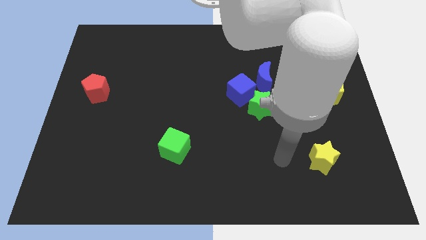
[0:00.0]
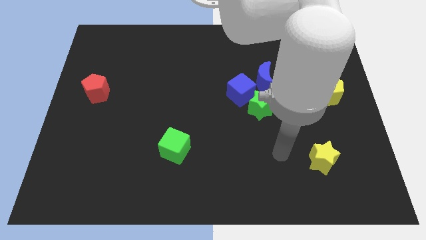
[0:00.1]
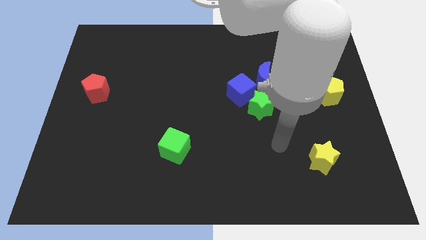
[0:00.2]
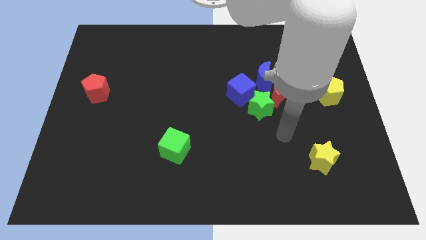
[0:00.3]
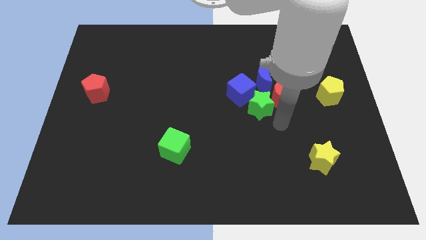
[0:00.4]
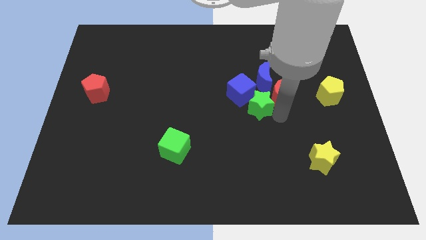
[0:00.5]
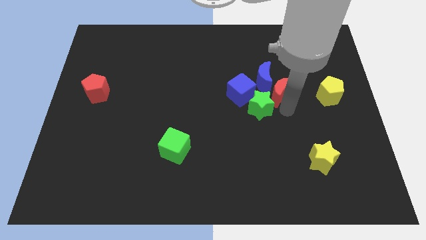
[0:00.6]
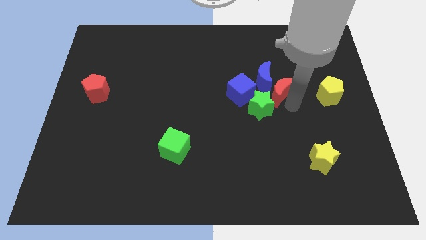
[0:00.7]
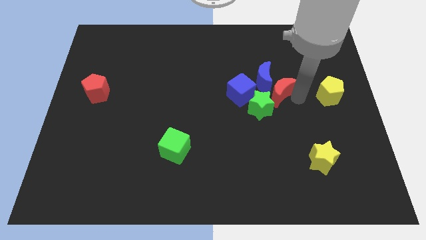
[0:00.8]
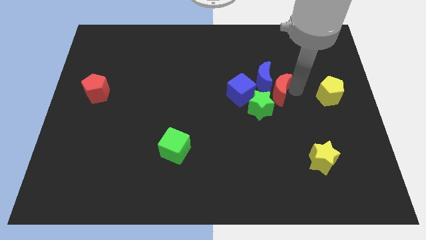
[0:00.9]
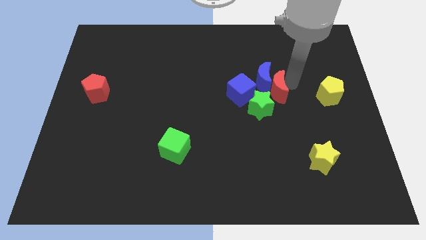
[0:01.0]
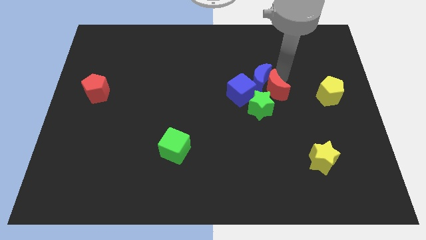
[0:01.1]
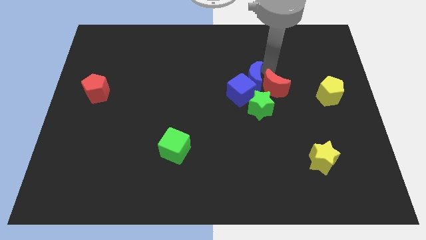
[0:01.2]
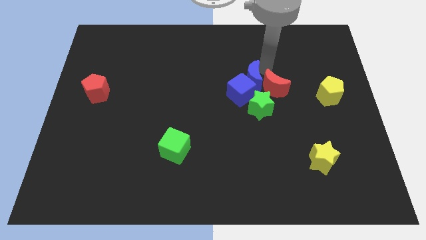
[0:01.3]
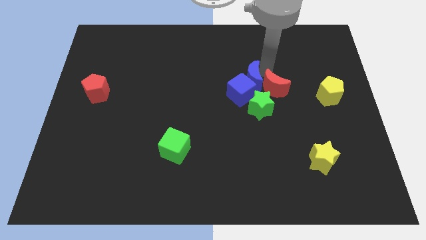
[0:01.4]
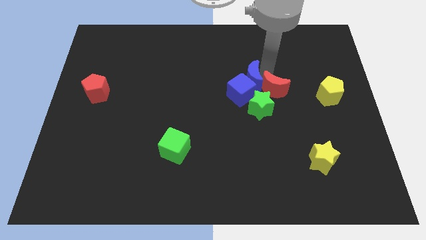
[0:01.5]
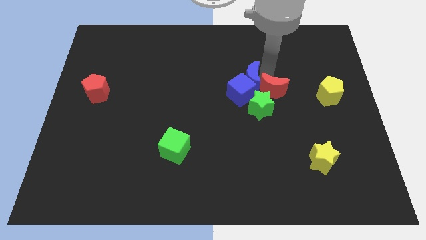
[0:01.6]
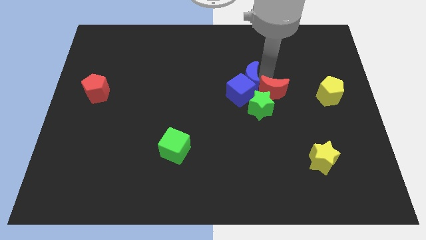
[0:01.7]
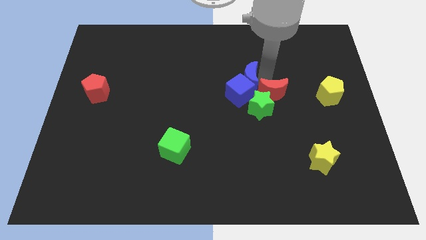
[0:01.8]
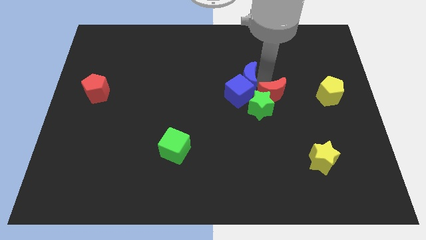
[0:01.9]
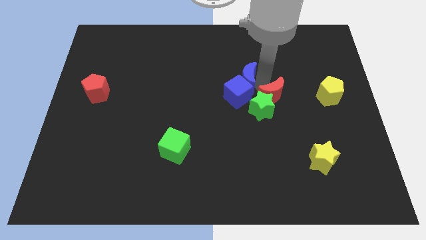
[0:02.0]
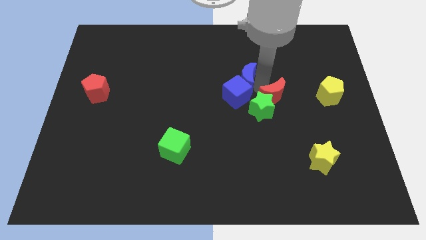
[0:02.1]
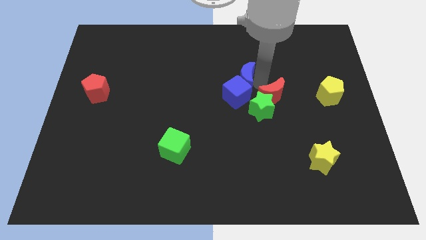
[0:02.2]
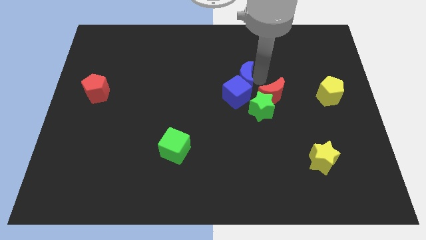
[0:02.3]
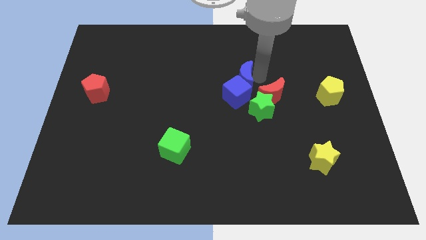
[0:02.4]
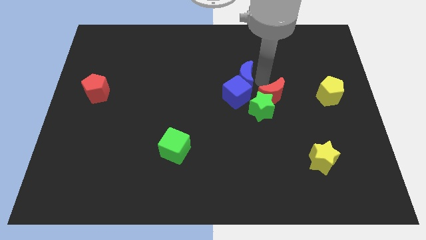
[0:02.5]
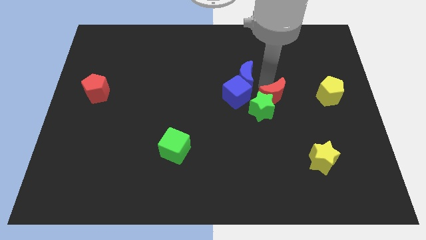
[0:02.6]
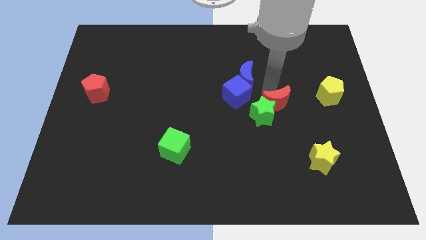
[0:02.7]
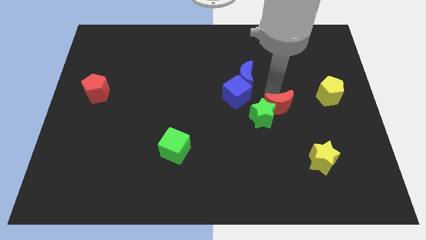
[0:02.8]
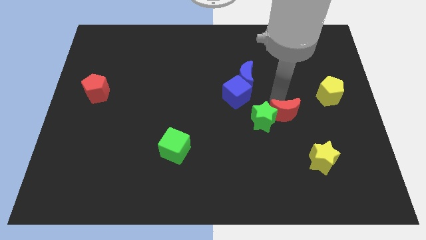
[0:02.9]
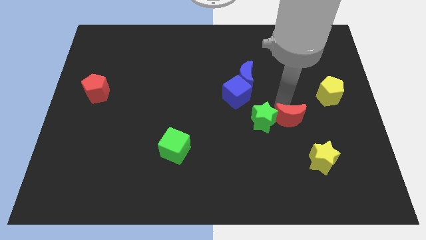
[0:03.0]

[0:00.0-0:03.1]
slide the red moon a little downwards

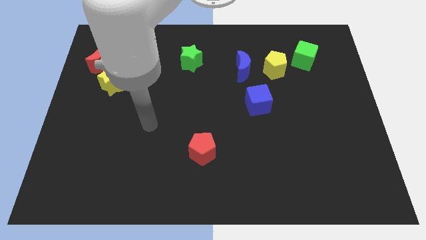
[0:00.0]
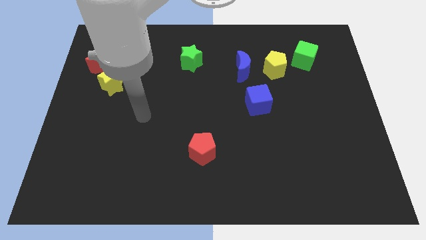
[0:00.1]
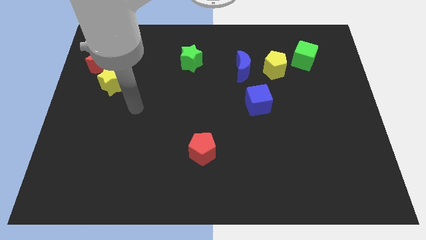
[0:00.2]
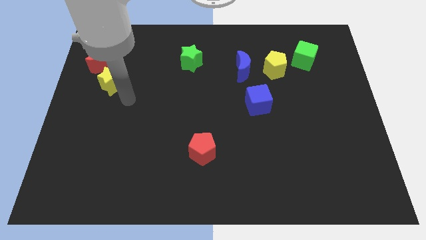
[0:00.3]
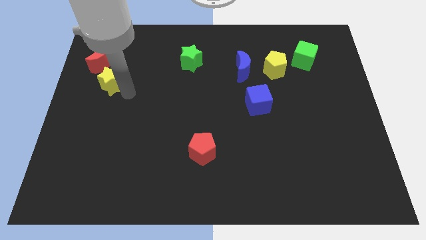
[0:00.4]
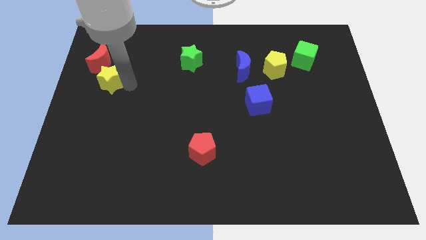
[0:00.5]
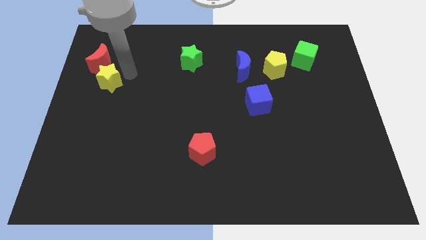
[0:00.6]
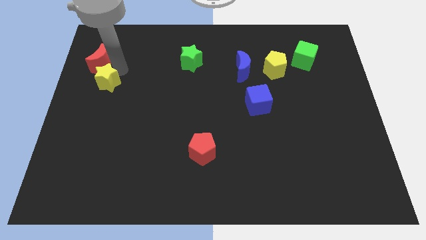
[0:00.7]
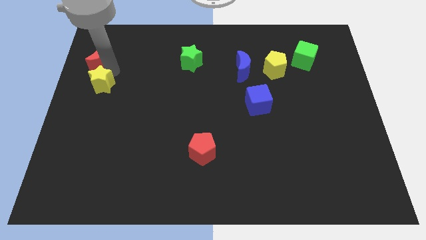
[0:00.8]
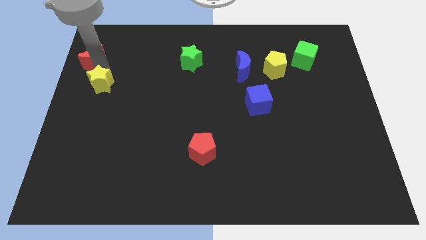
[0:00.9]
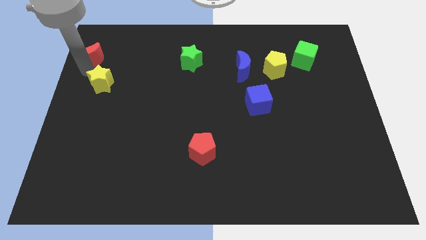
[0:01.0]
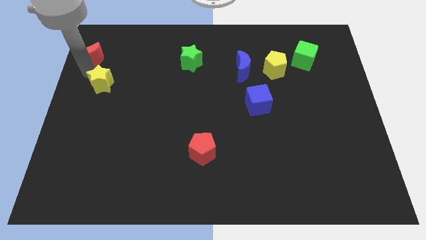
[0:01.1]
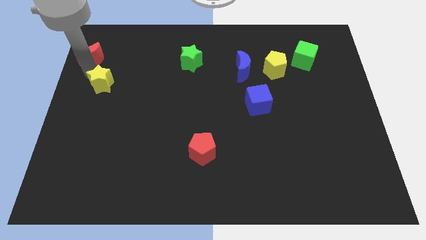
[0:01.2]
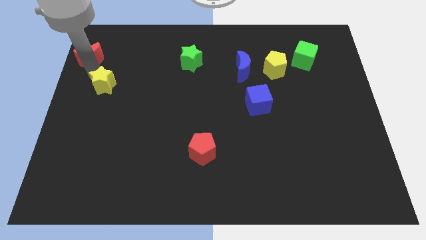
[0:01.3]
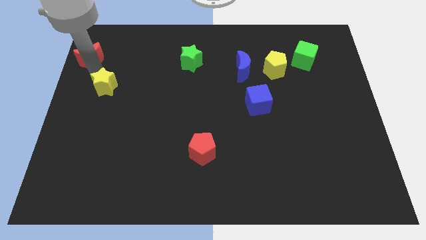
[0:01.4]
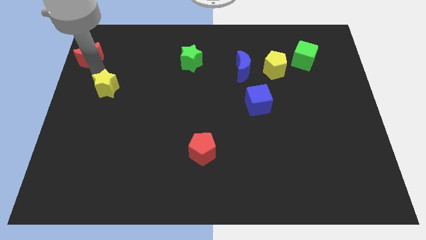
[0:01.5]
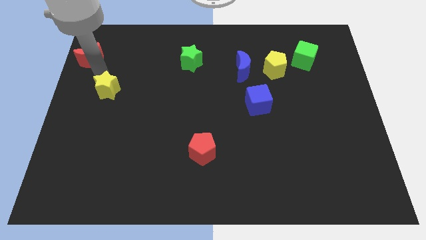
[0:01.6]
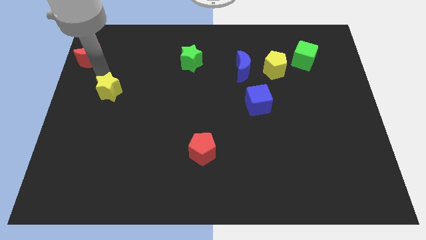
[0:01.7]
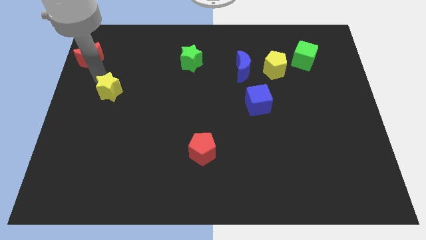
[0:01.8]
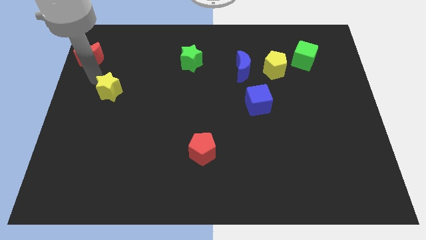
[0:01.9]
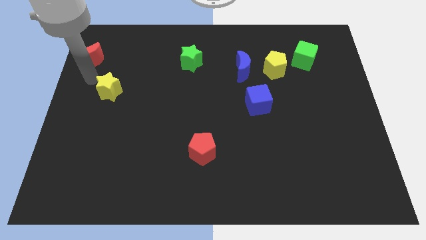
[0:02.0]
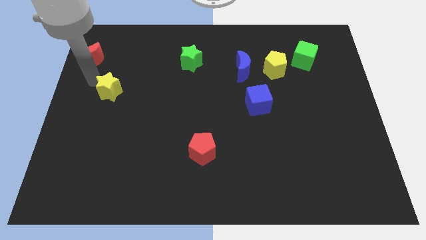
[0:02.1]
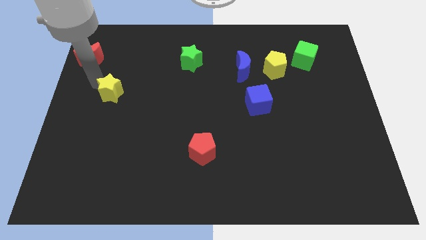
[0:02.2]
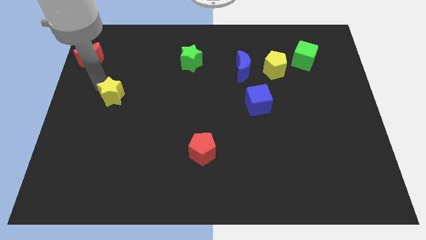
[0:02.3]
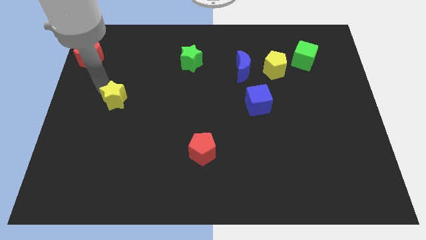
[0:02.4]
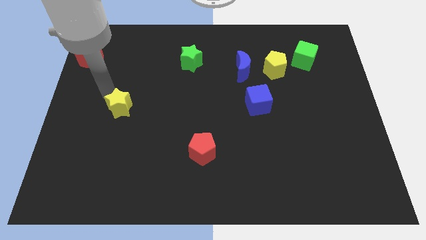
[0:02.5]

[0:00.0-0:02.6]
push the yellow star a little bit diagonally down and to the right

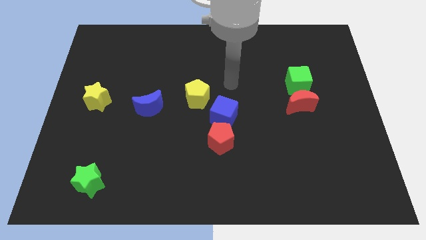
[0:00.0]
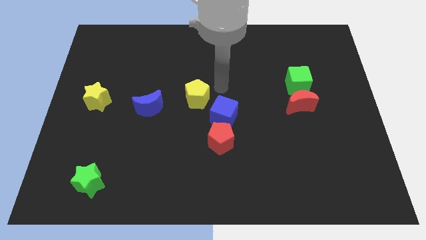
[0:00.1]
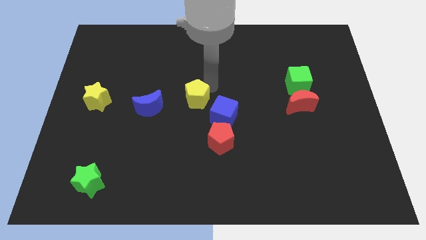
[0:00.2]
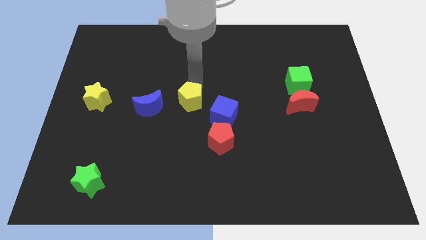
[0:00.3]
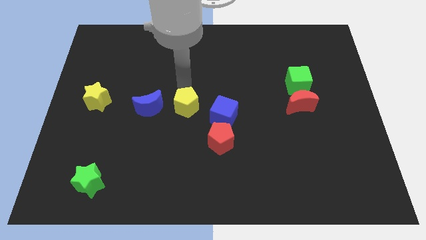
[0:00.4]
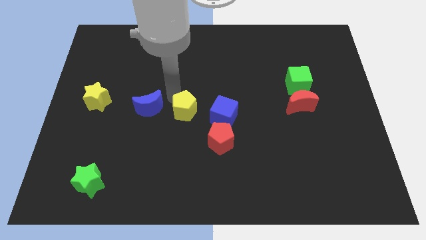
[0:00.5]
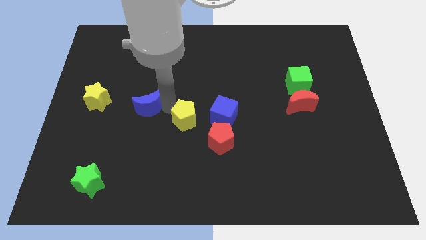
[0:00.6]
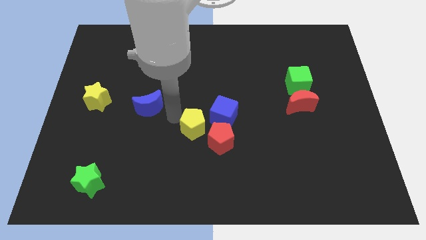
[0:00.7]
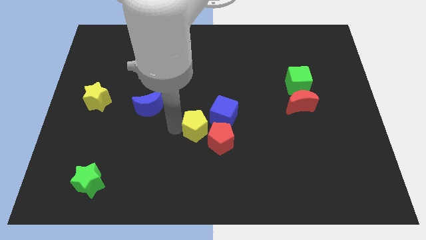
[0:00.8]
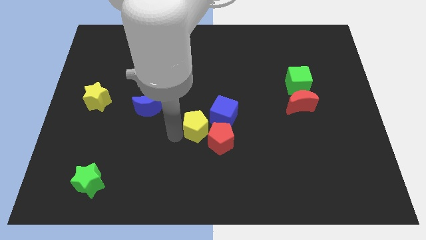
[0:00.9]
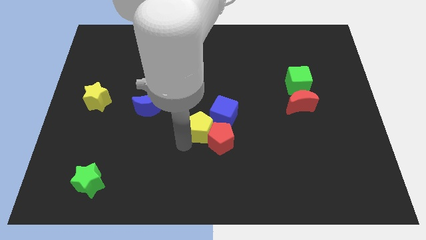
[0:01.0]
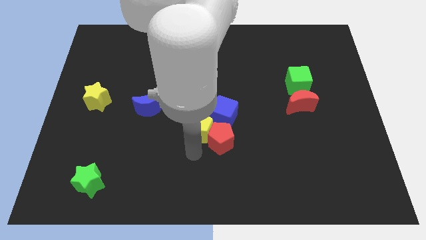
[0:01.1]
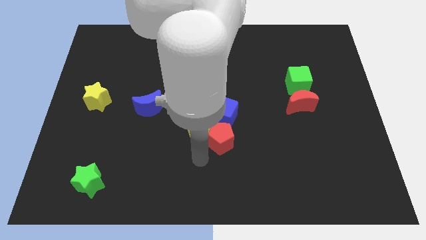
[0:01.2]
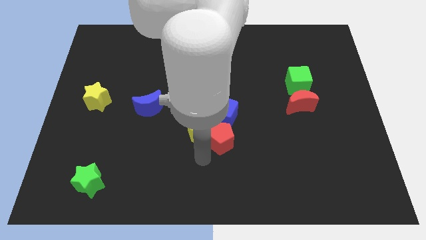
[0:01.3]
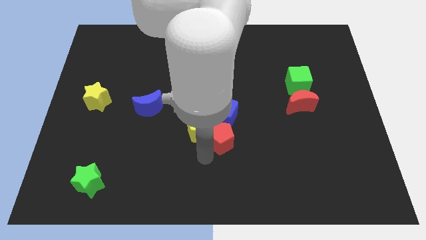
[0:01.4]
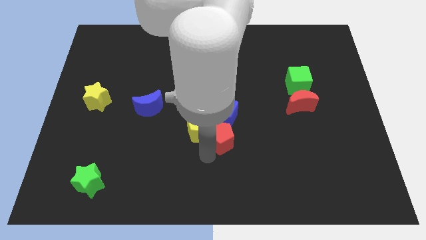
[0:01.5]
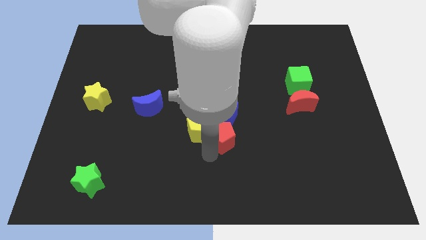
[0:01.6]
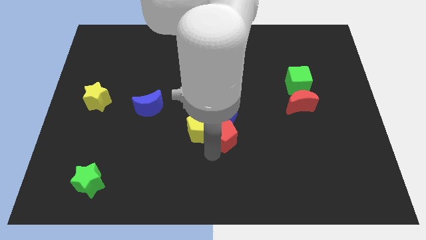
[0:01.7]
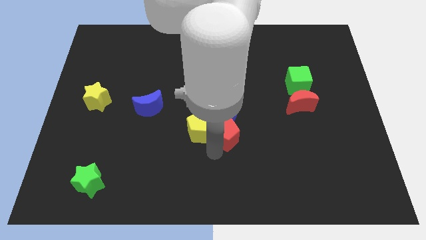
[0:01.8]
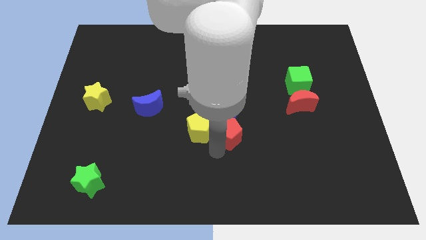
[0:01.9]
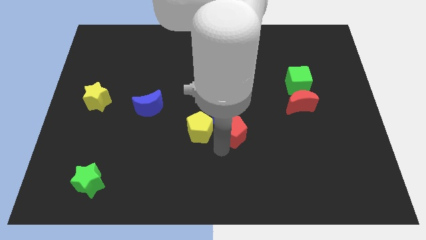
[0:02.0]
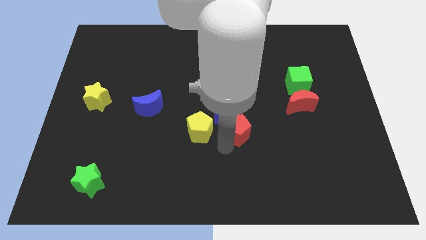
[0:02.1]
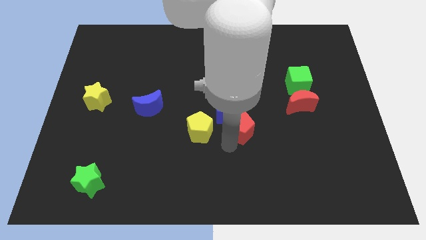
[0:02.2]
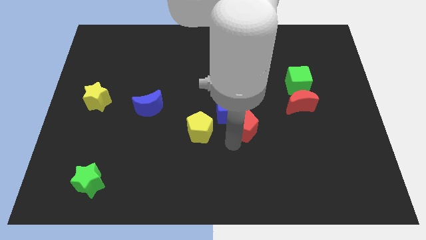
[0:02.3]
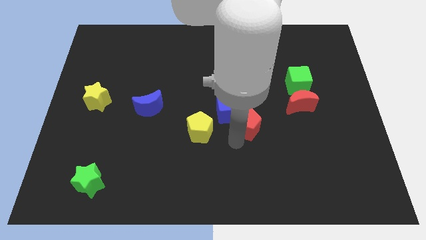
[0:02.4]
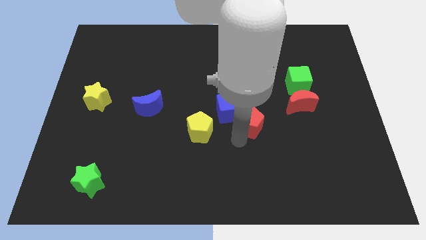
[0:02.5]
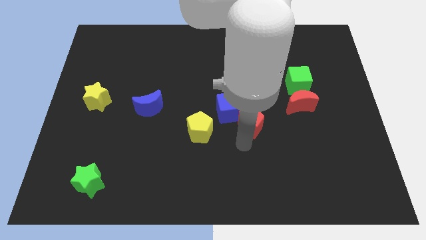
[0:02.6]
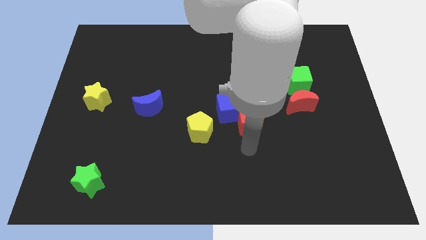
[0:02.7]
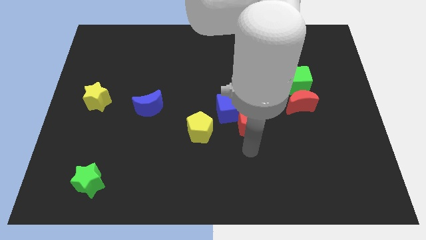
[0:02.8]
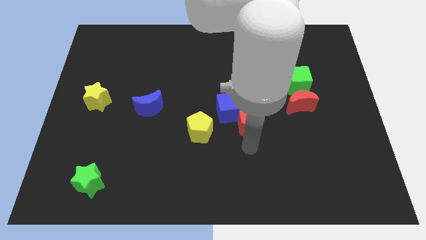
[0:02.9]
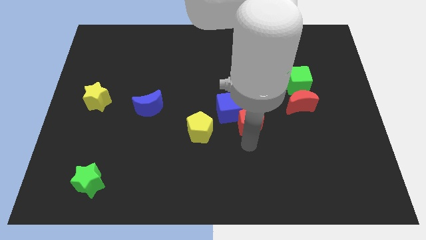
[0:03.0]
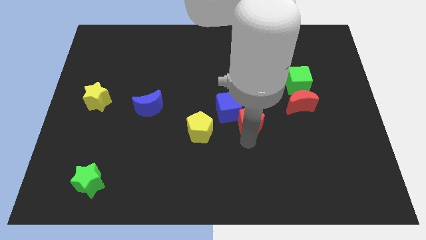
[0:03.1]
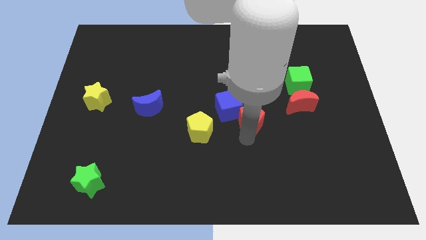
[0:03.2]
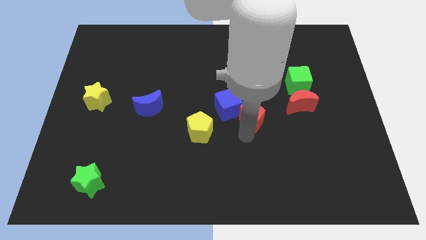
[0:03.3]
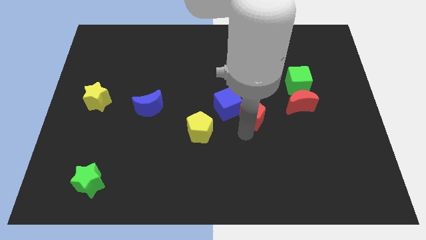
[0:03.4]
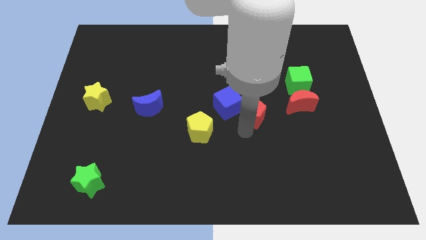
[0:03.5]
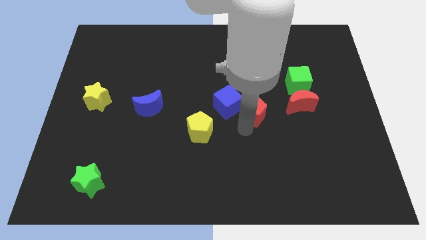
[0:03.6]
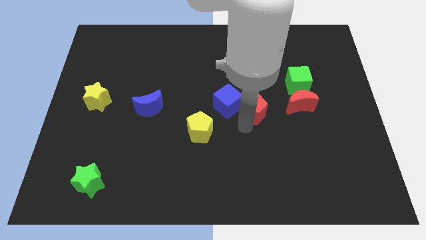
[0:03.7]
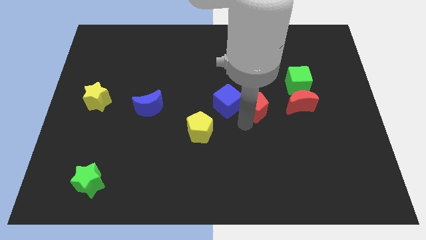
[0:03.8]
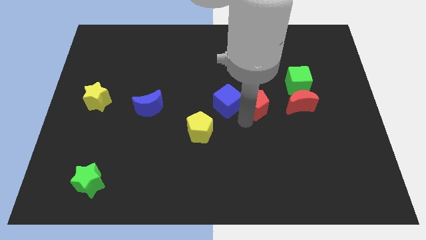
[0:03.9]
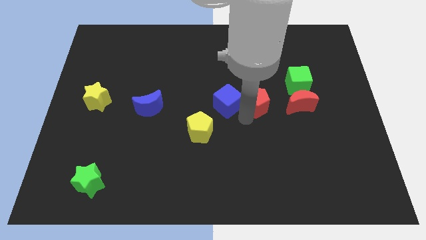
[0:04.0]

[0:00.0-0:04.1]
move the red pentagon up a bit
